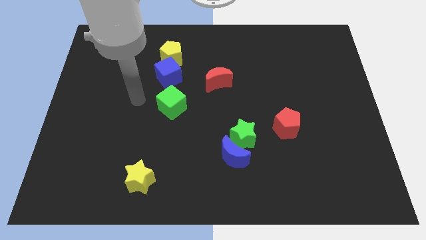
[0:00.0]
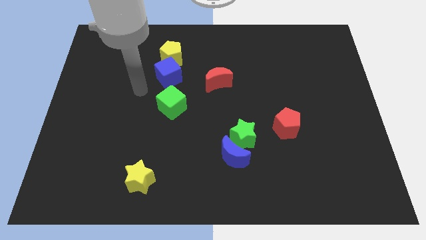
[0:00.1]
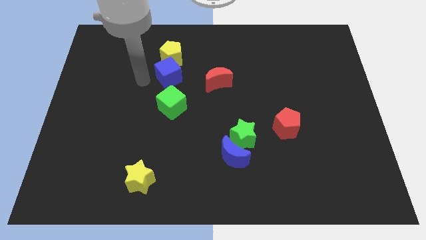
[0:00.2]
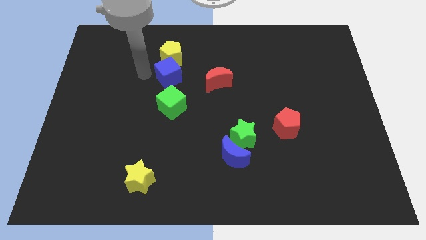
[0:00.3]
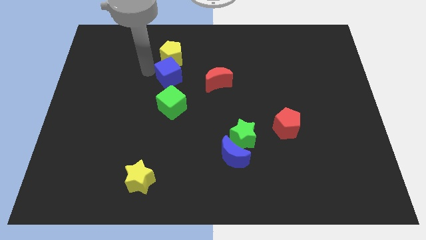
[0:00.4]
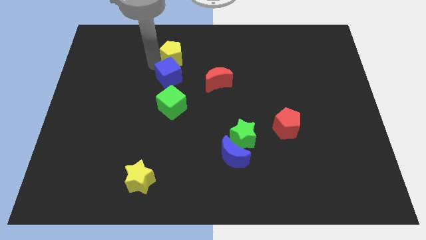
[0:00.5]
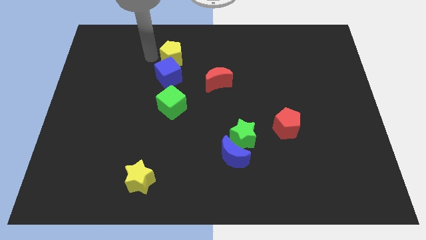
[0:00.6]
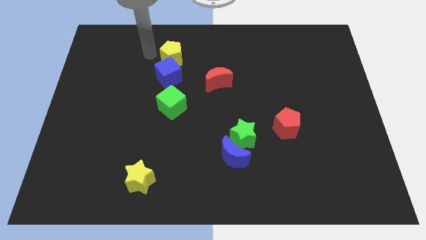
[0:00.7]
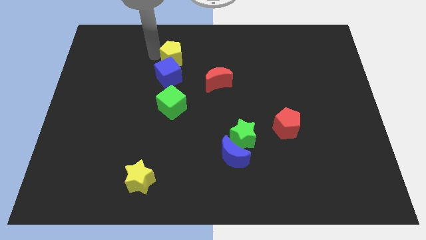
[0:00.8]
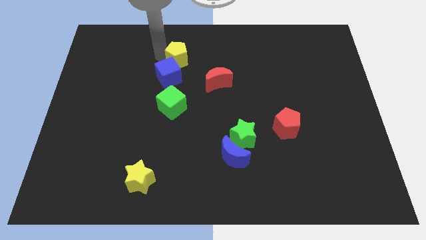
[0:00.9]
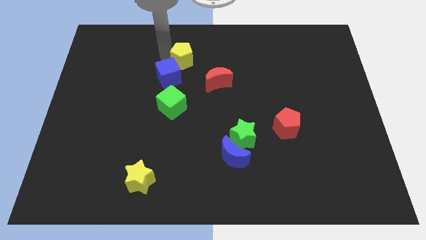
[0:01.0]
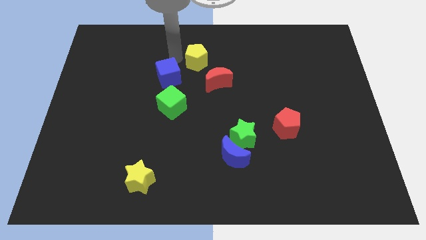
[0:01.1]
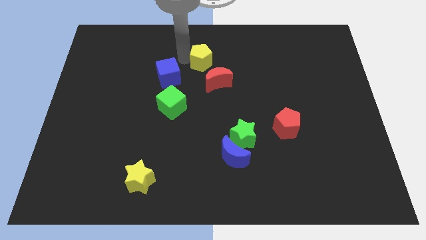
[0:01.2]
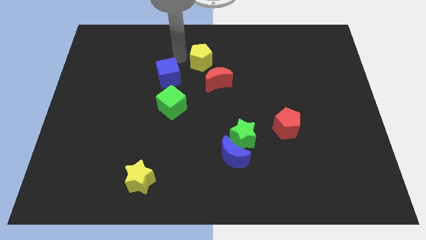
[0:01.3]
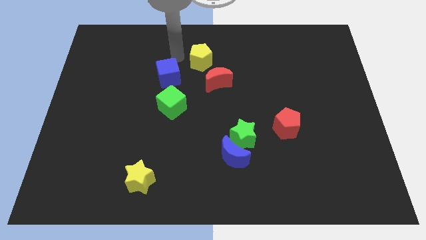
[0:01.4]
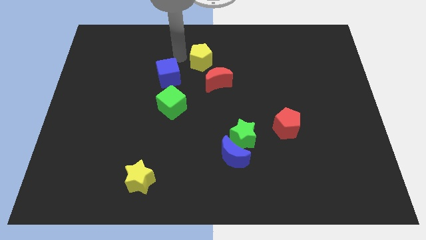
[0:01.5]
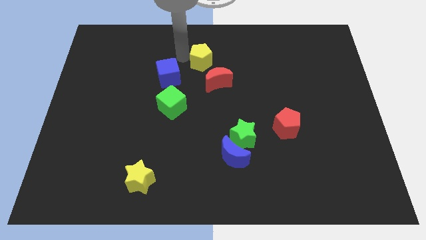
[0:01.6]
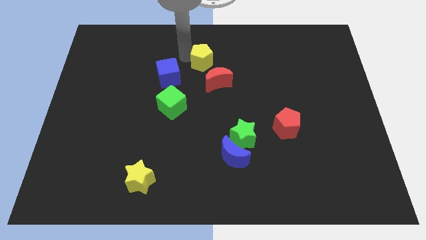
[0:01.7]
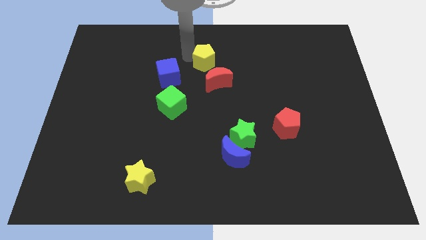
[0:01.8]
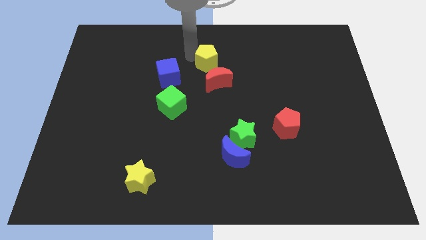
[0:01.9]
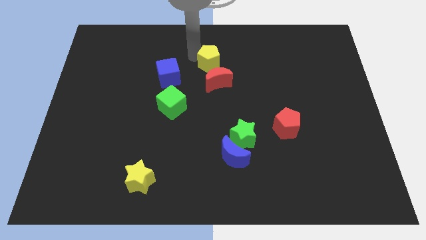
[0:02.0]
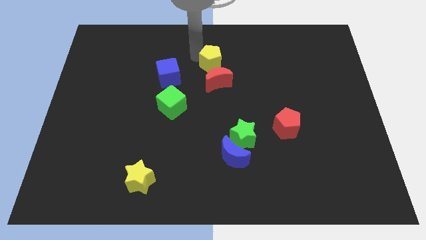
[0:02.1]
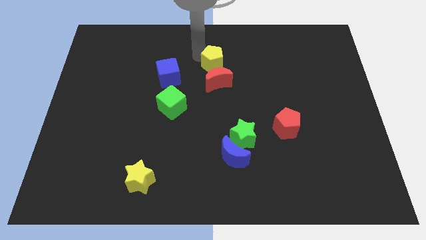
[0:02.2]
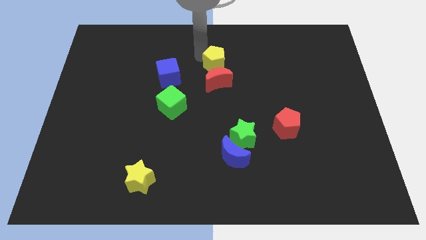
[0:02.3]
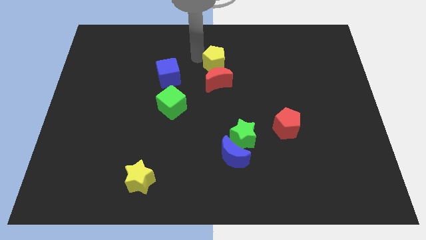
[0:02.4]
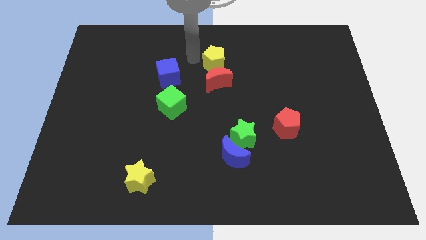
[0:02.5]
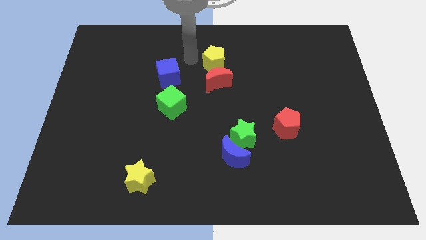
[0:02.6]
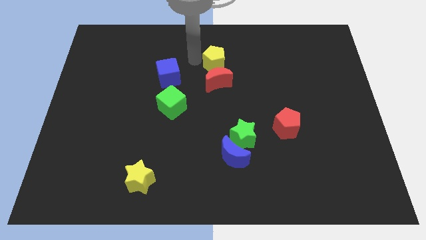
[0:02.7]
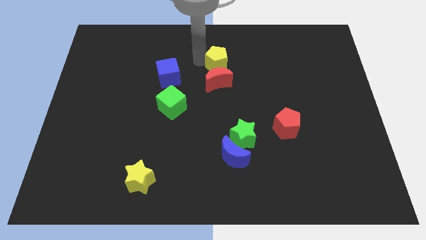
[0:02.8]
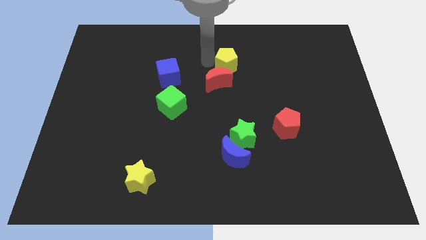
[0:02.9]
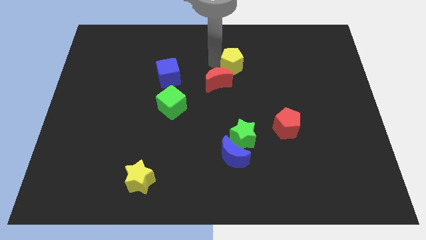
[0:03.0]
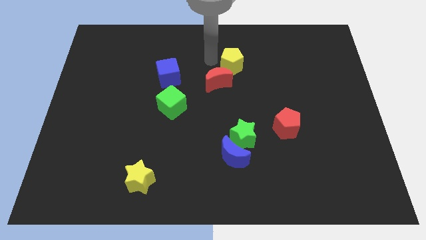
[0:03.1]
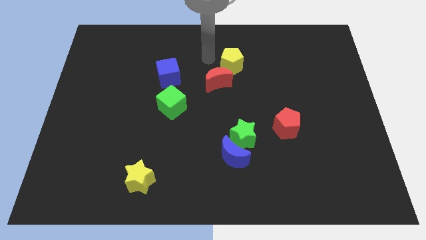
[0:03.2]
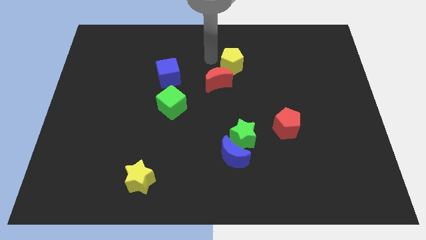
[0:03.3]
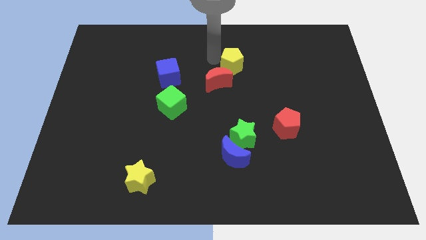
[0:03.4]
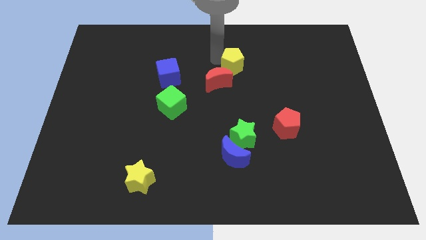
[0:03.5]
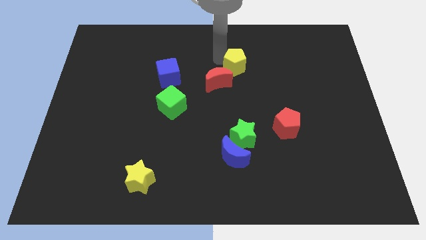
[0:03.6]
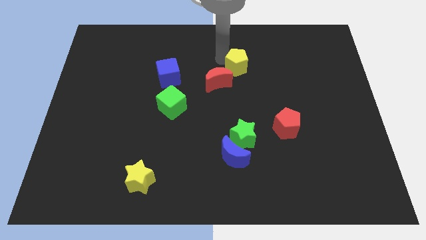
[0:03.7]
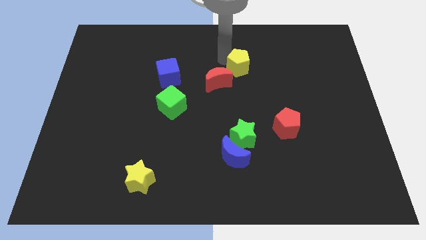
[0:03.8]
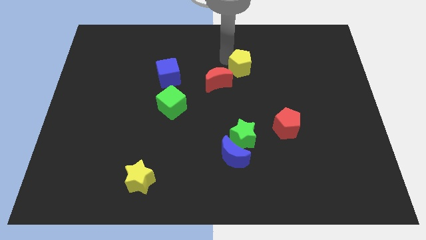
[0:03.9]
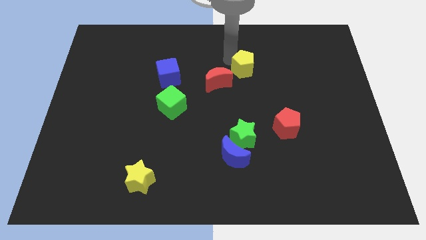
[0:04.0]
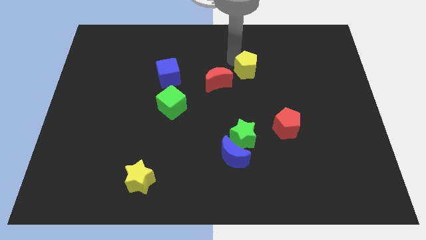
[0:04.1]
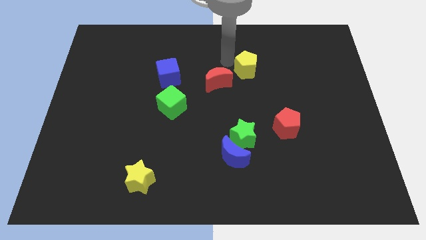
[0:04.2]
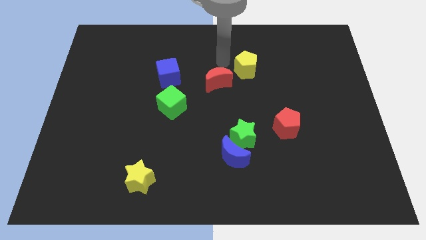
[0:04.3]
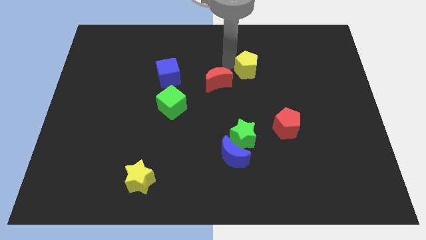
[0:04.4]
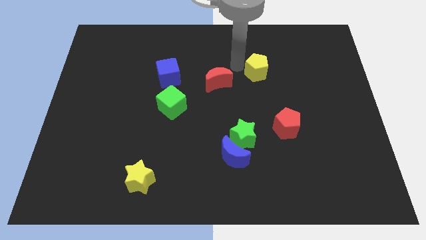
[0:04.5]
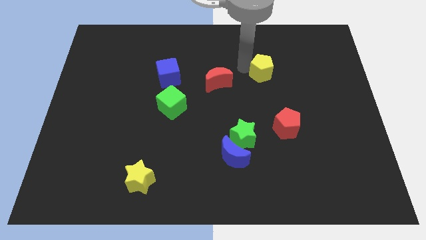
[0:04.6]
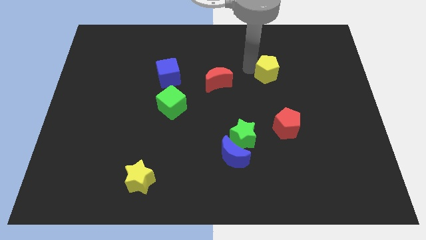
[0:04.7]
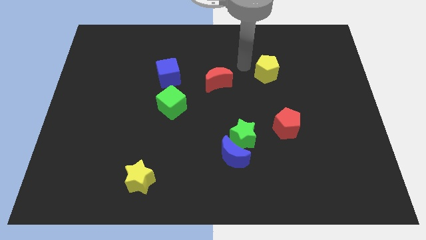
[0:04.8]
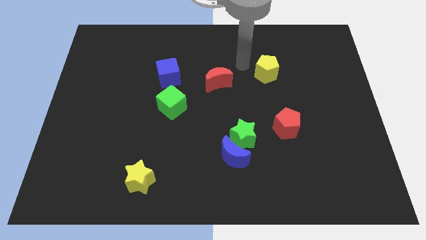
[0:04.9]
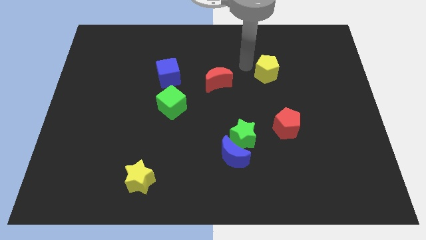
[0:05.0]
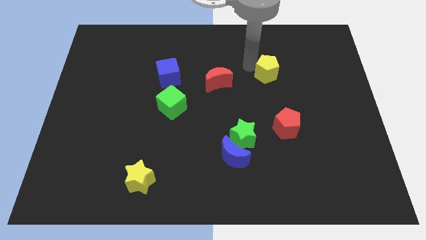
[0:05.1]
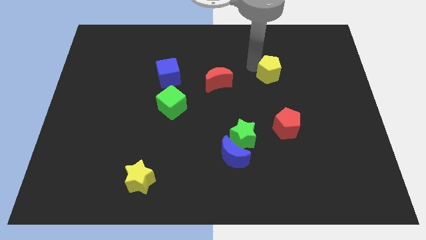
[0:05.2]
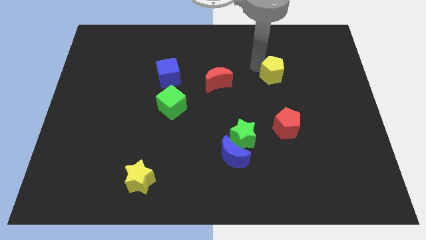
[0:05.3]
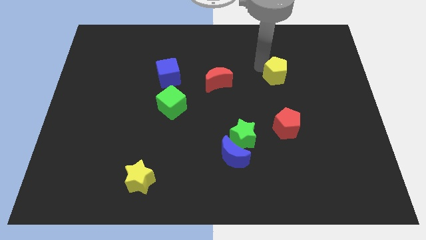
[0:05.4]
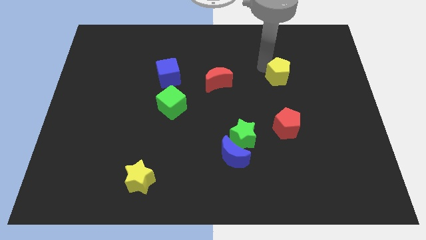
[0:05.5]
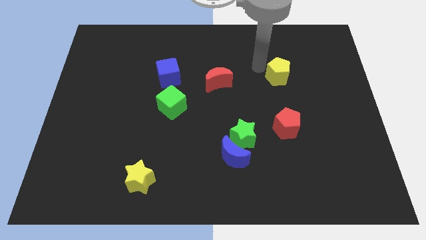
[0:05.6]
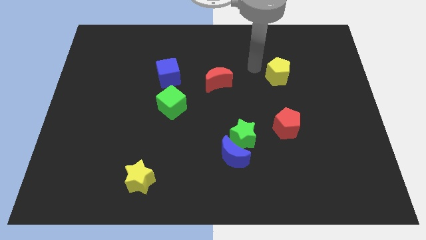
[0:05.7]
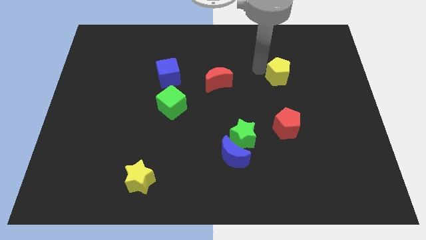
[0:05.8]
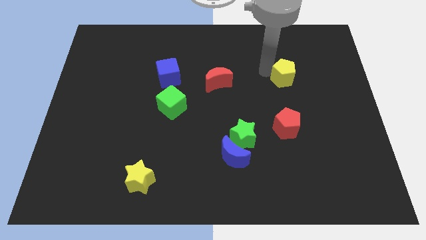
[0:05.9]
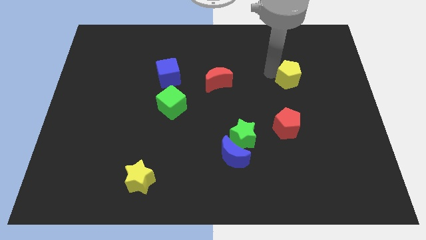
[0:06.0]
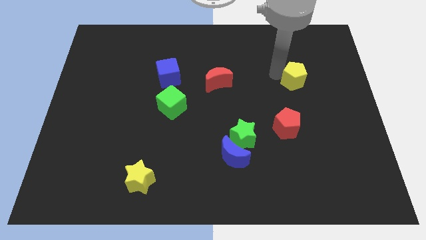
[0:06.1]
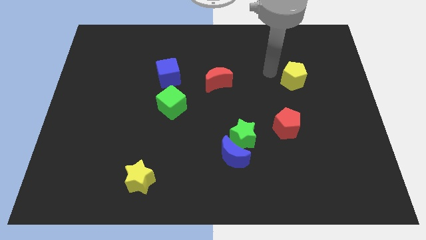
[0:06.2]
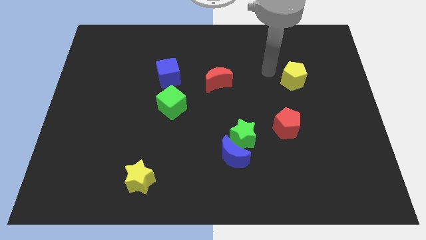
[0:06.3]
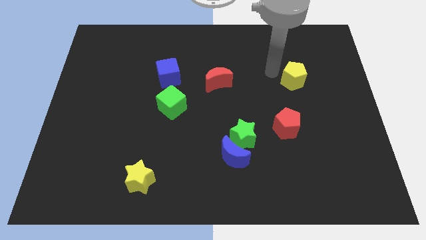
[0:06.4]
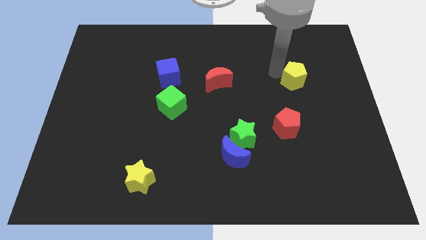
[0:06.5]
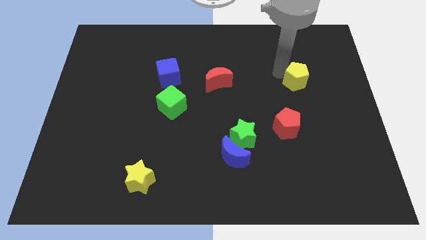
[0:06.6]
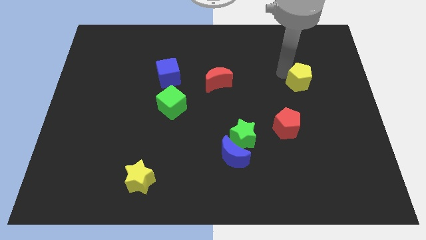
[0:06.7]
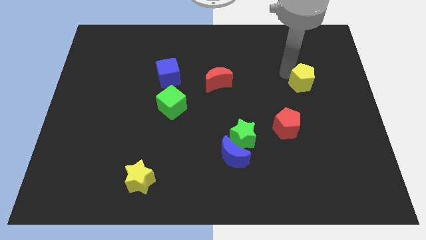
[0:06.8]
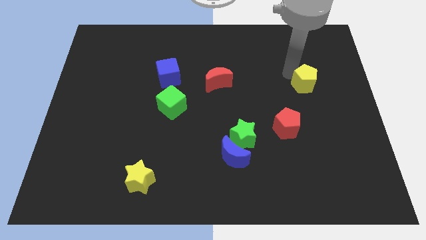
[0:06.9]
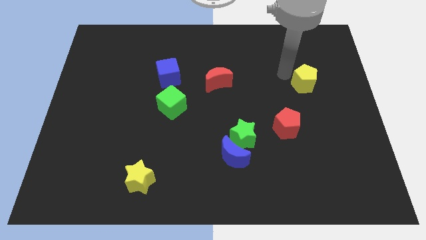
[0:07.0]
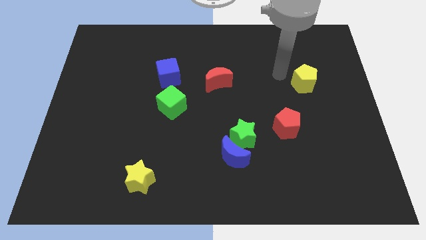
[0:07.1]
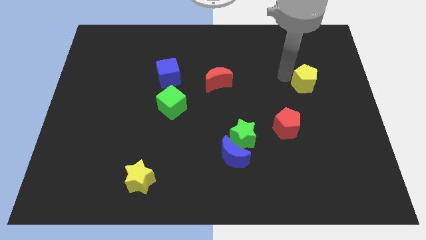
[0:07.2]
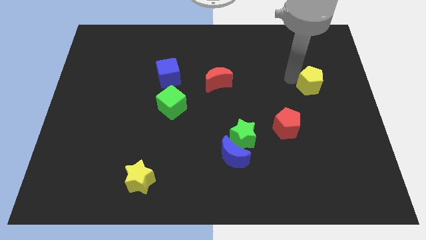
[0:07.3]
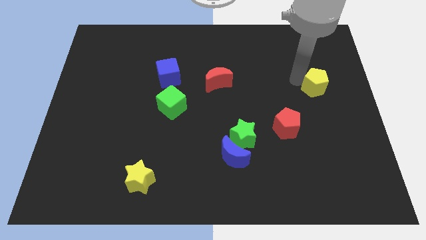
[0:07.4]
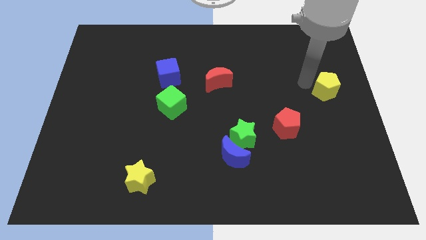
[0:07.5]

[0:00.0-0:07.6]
move the yellow pentagon to the center right

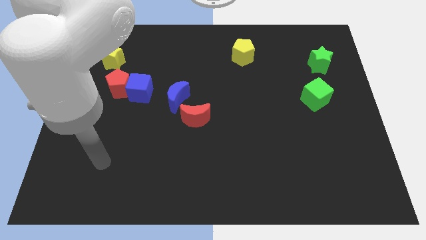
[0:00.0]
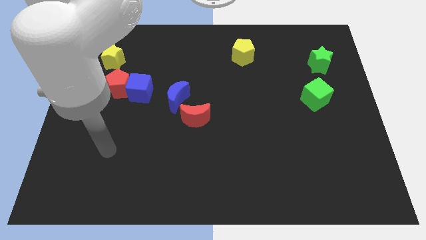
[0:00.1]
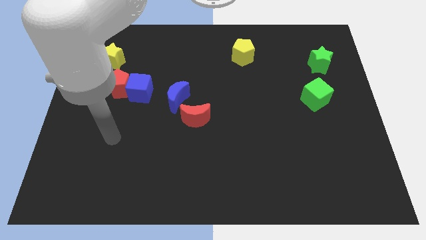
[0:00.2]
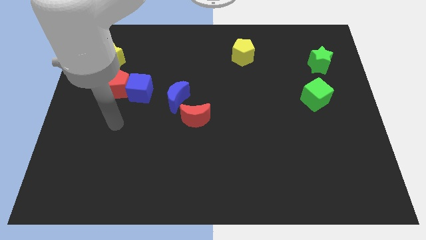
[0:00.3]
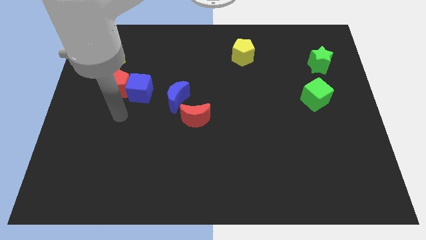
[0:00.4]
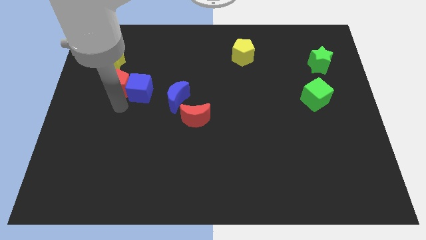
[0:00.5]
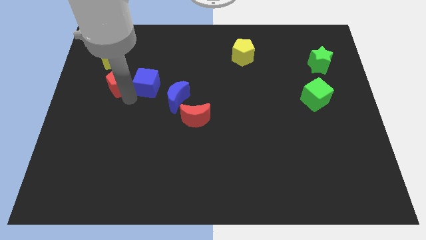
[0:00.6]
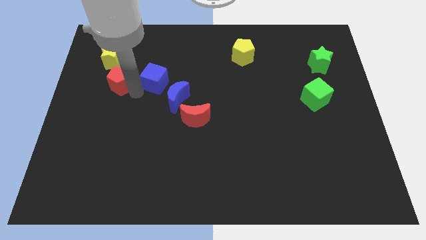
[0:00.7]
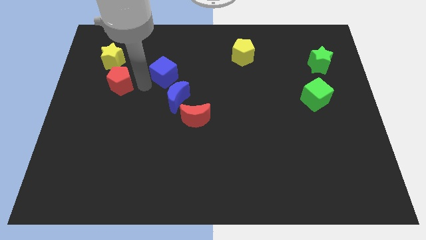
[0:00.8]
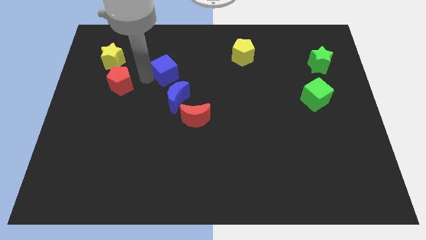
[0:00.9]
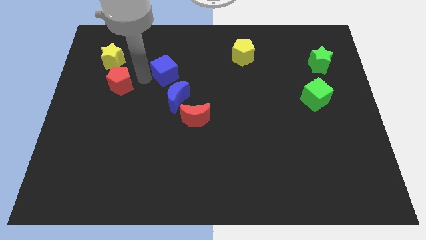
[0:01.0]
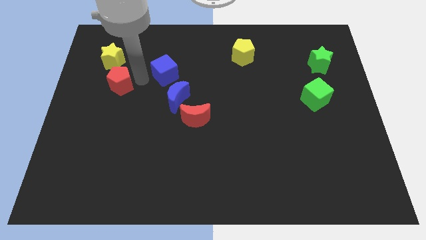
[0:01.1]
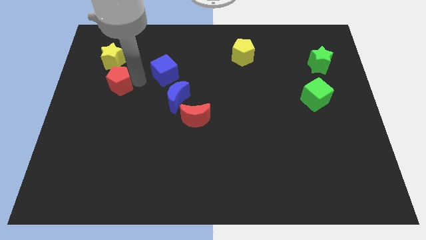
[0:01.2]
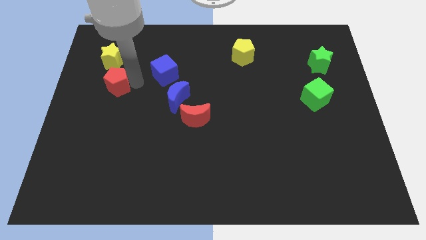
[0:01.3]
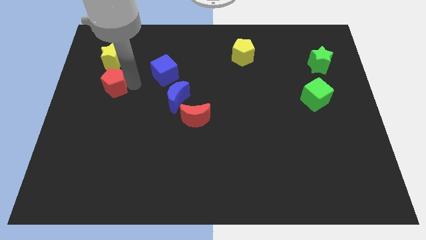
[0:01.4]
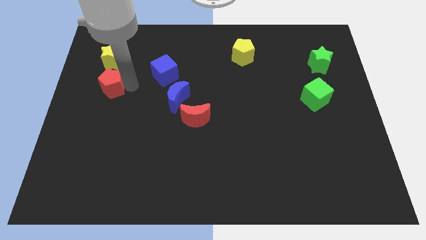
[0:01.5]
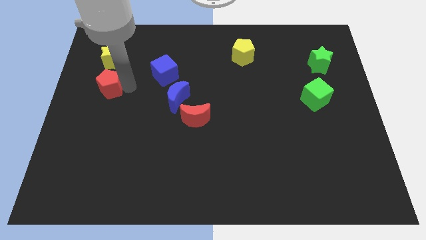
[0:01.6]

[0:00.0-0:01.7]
slide the red pentagon to the left side of the board
